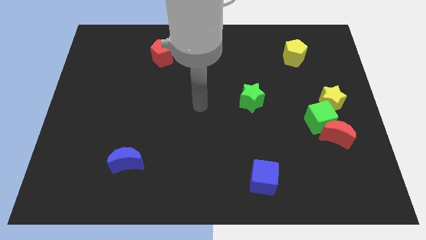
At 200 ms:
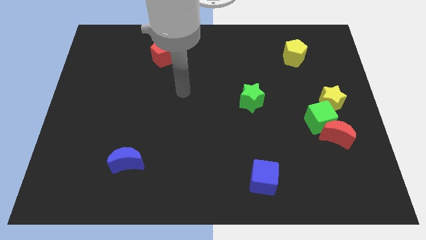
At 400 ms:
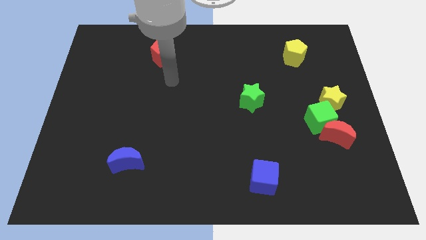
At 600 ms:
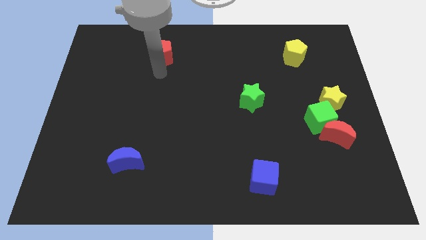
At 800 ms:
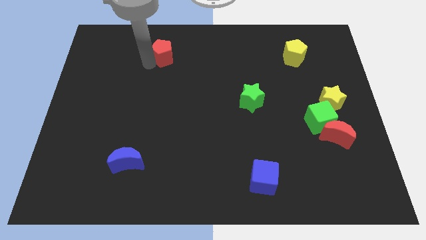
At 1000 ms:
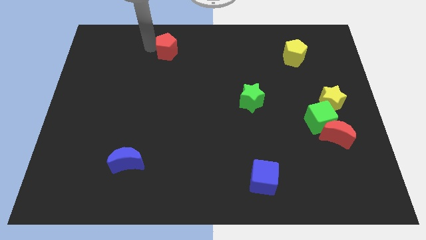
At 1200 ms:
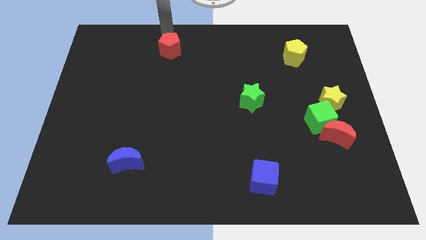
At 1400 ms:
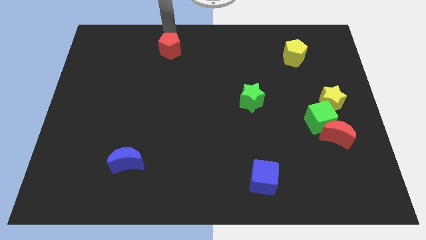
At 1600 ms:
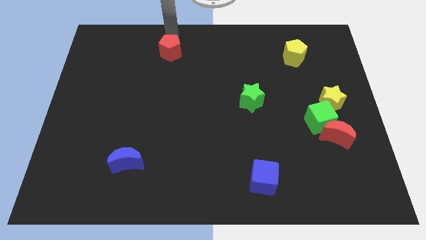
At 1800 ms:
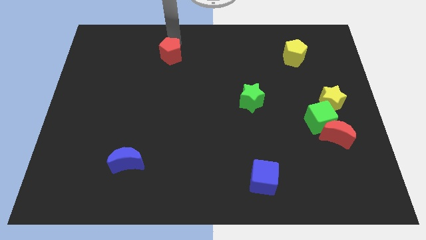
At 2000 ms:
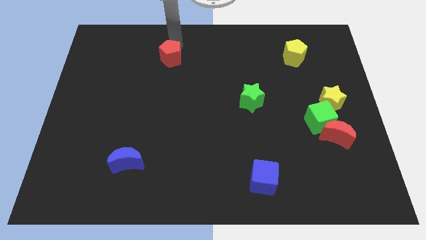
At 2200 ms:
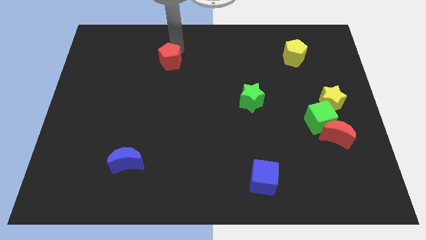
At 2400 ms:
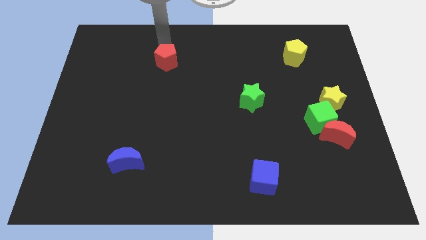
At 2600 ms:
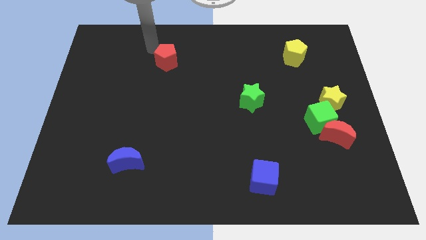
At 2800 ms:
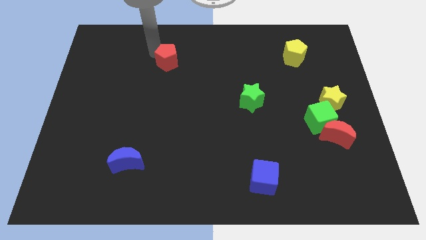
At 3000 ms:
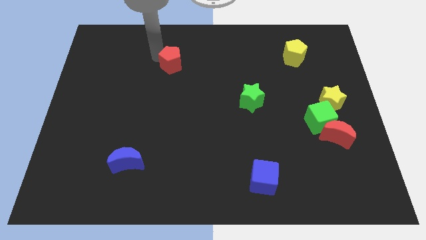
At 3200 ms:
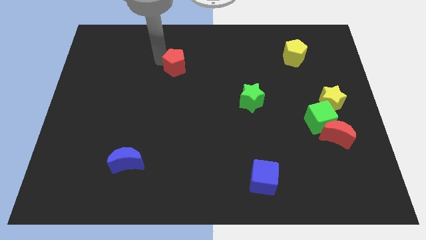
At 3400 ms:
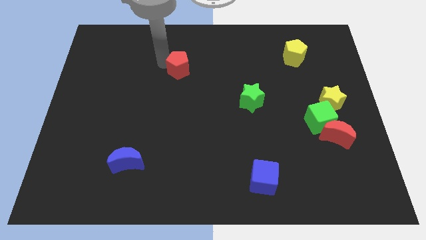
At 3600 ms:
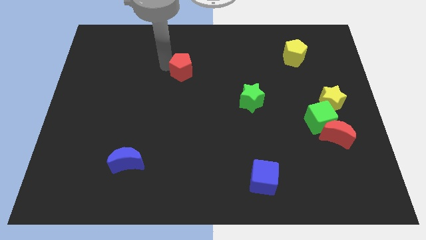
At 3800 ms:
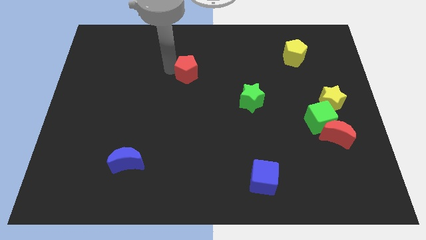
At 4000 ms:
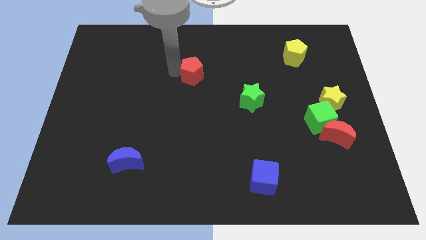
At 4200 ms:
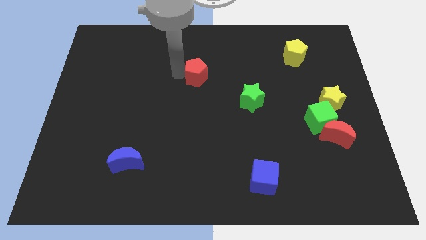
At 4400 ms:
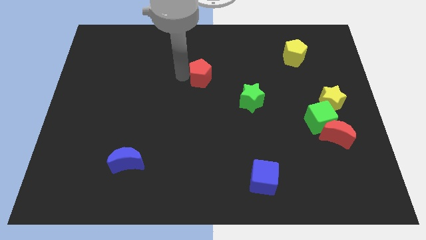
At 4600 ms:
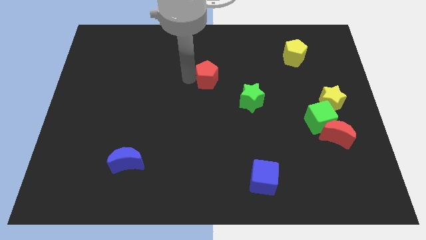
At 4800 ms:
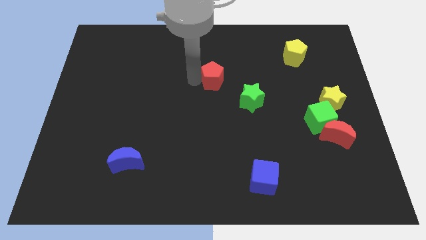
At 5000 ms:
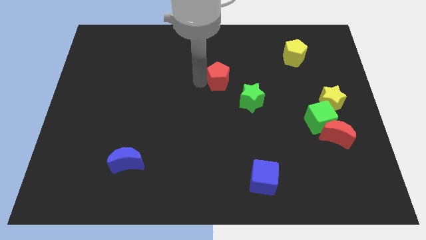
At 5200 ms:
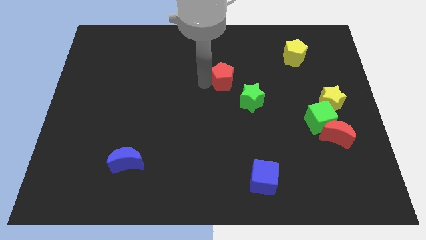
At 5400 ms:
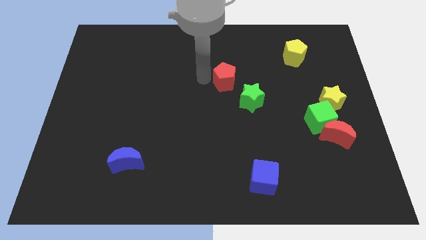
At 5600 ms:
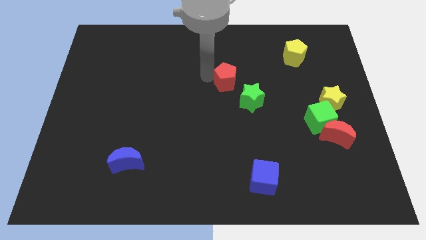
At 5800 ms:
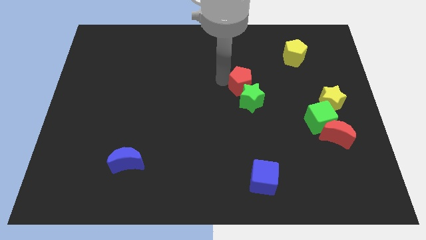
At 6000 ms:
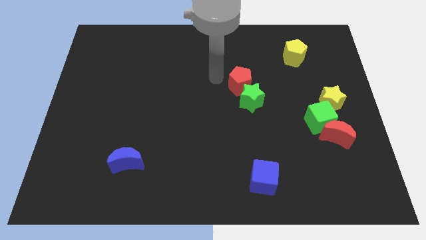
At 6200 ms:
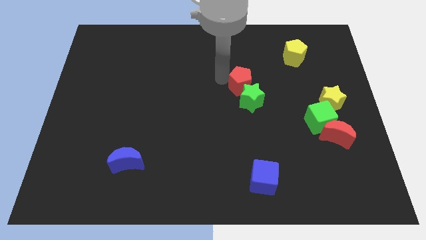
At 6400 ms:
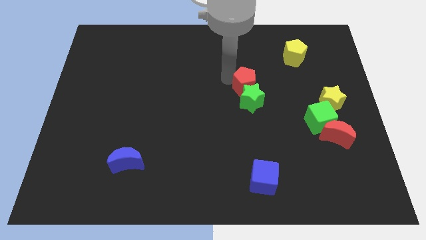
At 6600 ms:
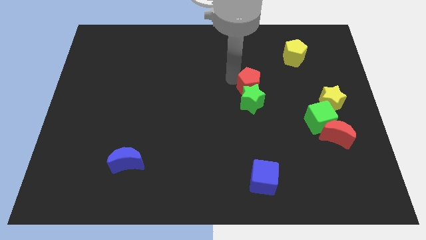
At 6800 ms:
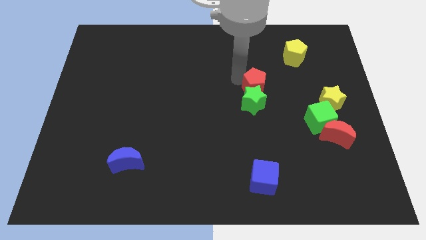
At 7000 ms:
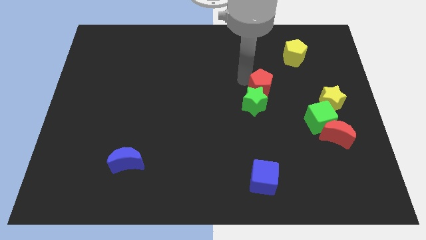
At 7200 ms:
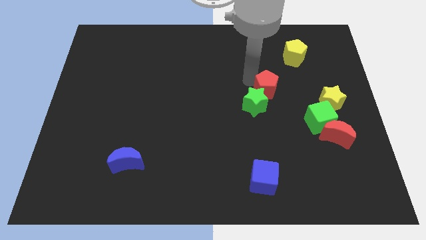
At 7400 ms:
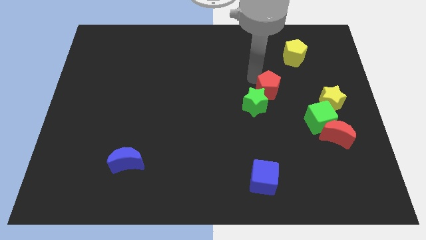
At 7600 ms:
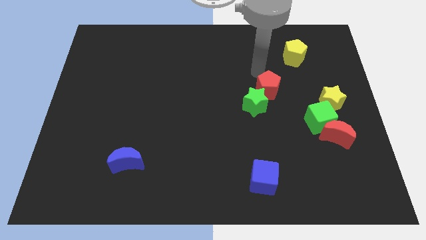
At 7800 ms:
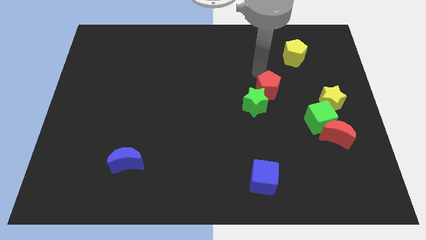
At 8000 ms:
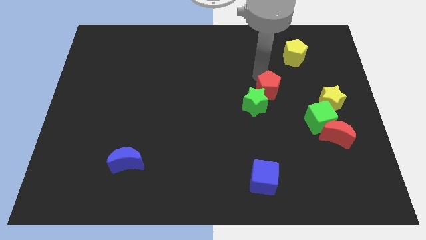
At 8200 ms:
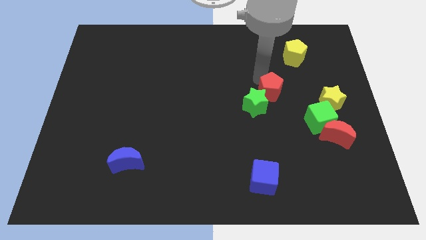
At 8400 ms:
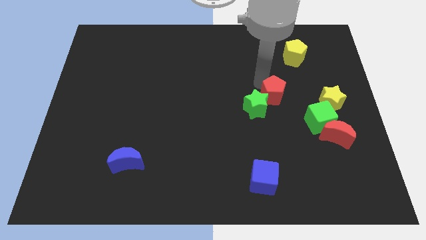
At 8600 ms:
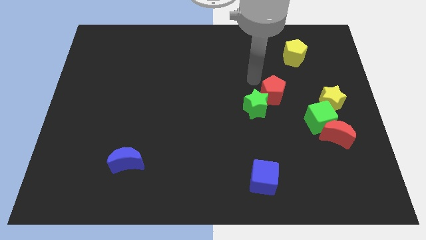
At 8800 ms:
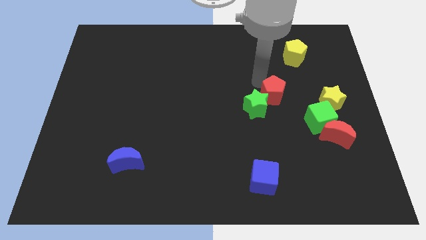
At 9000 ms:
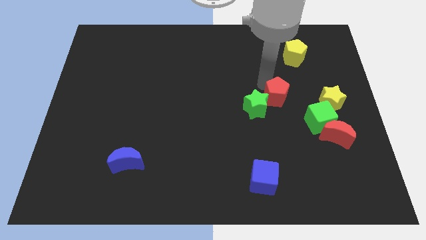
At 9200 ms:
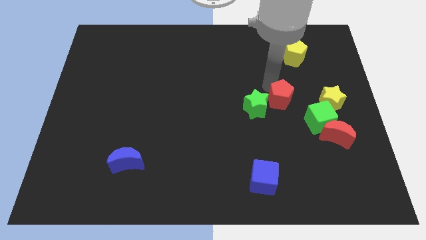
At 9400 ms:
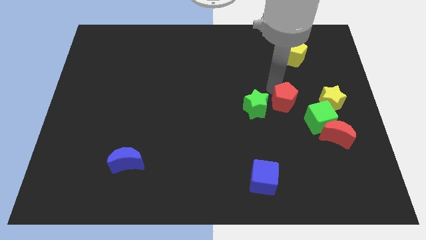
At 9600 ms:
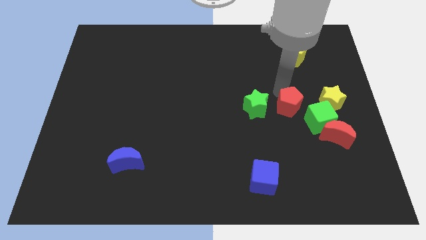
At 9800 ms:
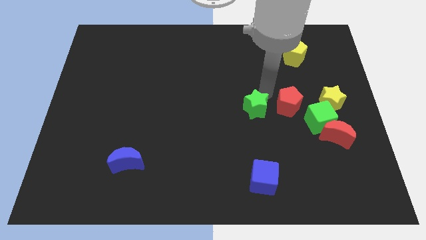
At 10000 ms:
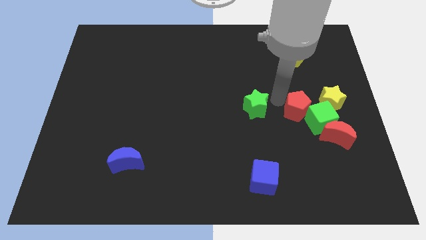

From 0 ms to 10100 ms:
move the red pentagon close to the green cube

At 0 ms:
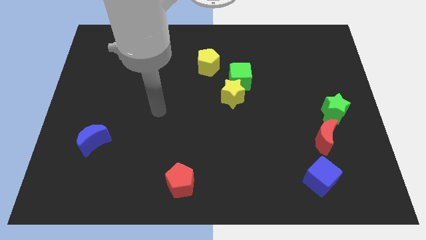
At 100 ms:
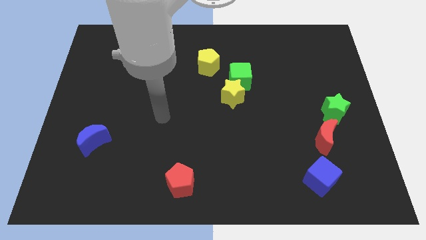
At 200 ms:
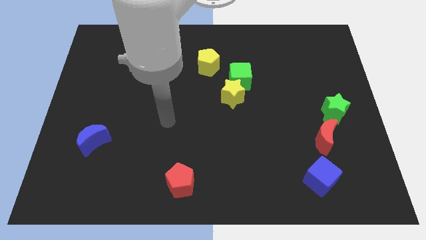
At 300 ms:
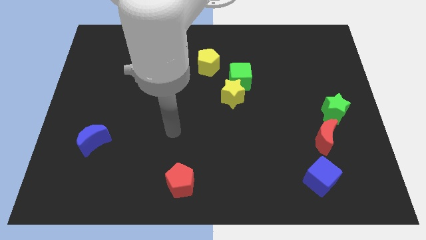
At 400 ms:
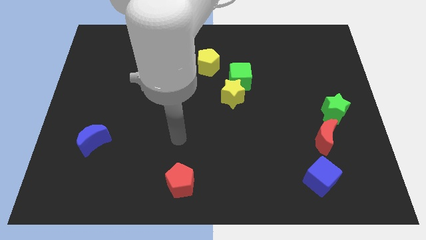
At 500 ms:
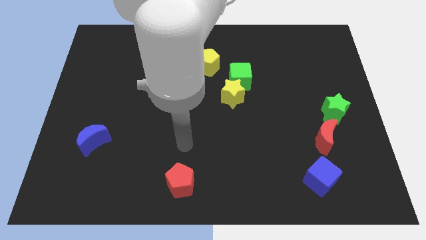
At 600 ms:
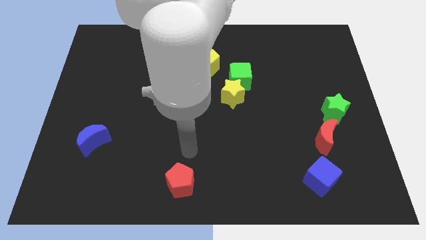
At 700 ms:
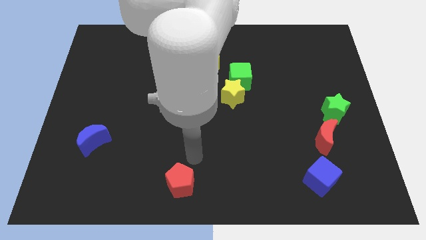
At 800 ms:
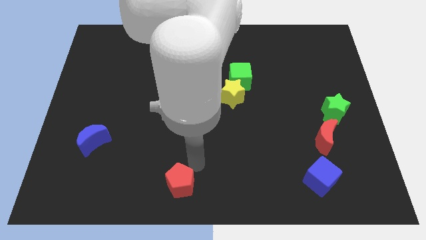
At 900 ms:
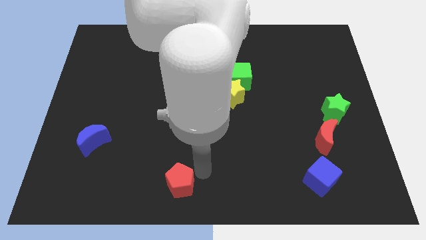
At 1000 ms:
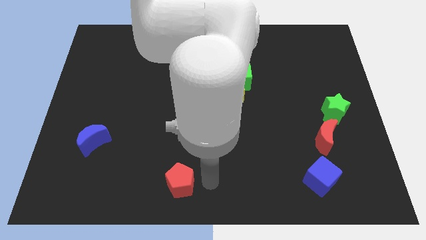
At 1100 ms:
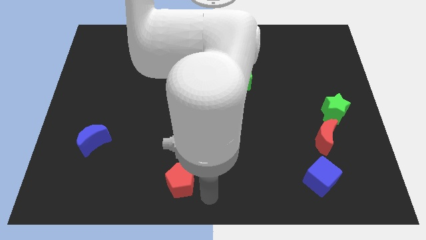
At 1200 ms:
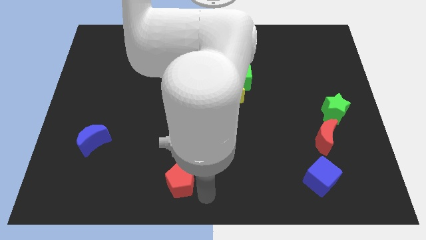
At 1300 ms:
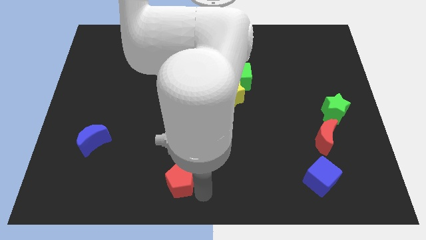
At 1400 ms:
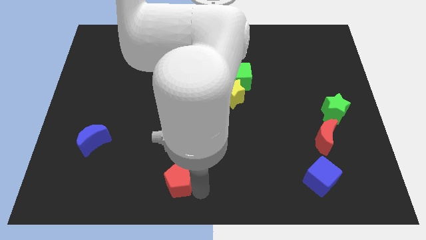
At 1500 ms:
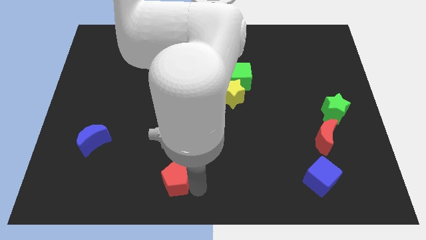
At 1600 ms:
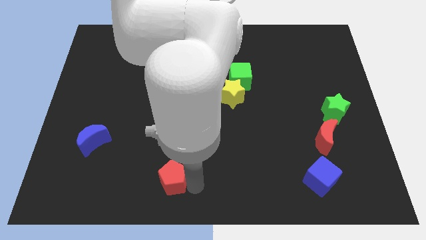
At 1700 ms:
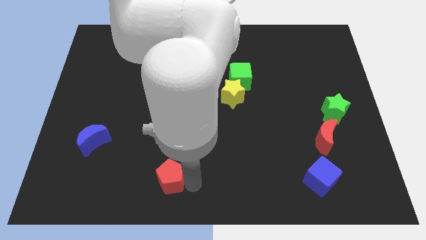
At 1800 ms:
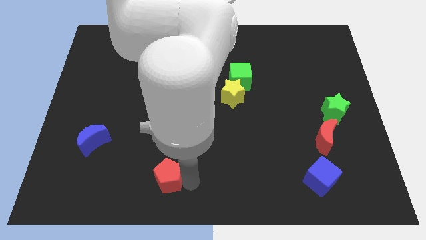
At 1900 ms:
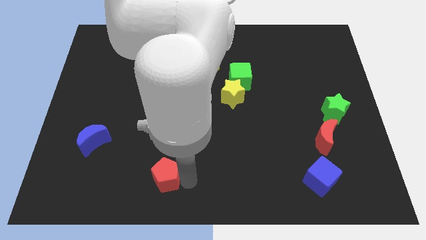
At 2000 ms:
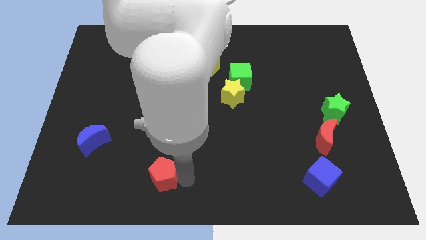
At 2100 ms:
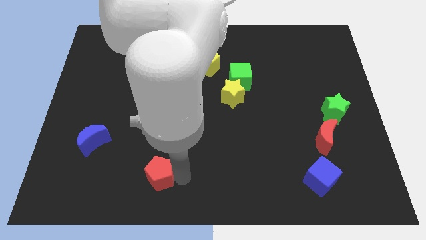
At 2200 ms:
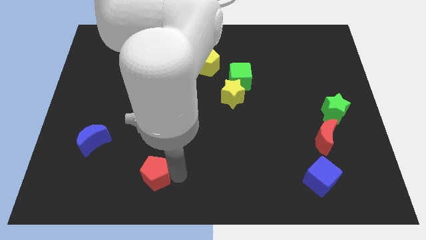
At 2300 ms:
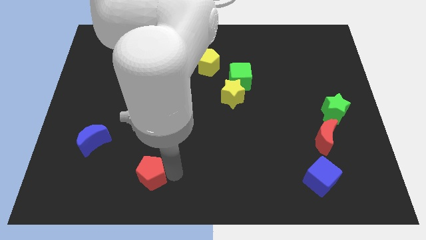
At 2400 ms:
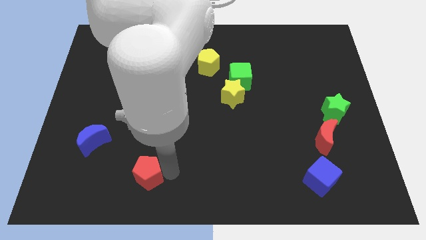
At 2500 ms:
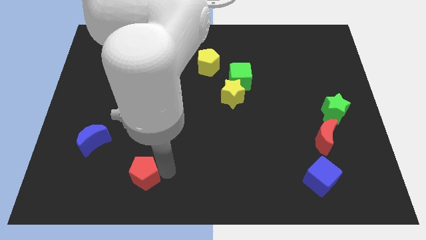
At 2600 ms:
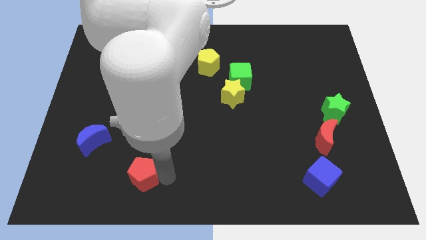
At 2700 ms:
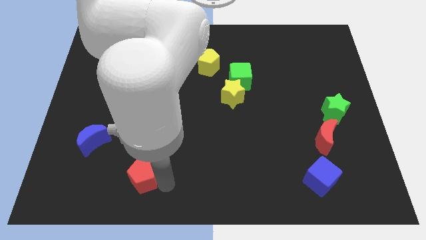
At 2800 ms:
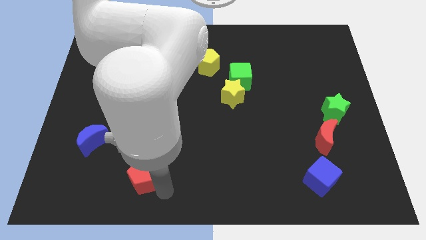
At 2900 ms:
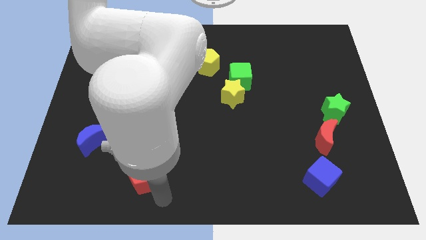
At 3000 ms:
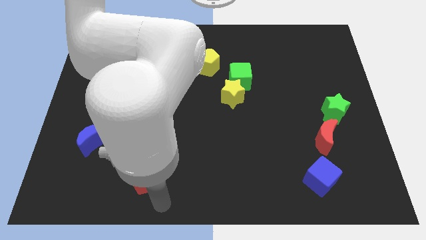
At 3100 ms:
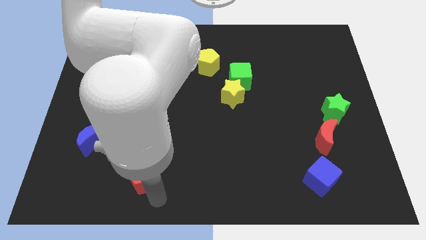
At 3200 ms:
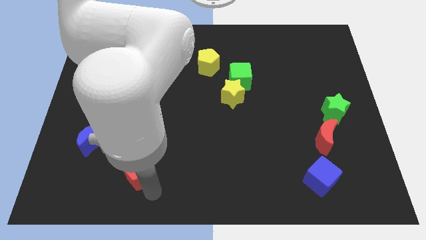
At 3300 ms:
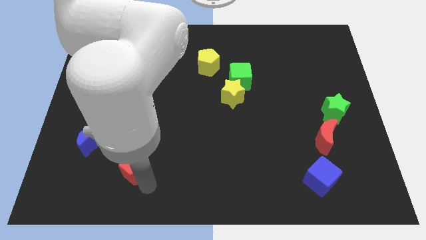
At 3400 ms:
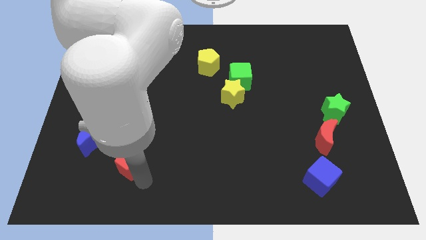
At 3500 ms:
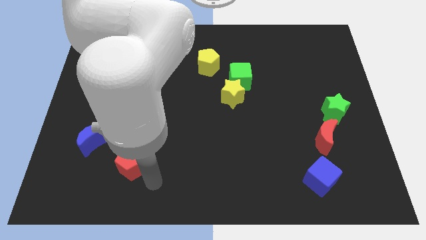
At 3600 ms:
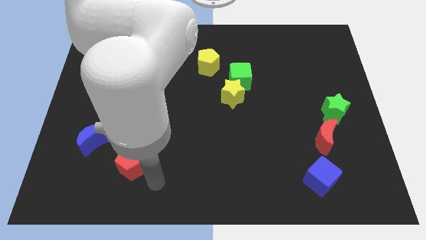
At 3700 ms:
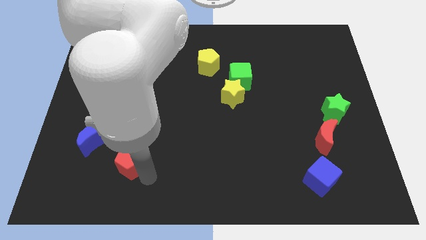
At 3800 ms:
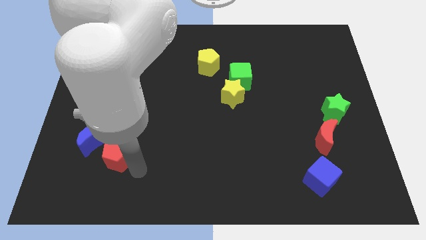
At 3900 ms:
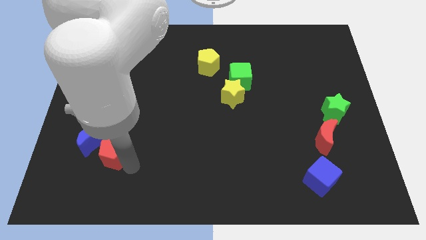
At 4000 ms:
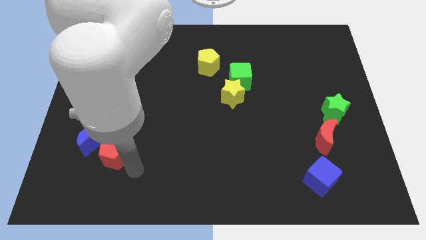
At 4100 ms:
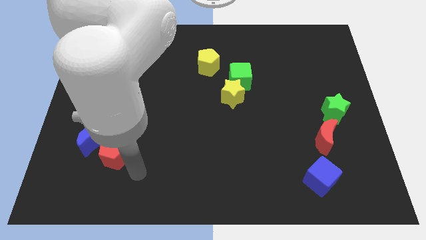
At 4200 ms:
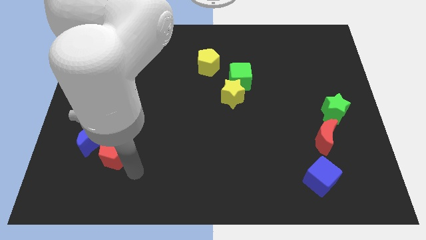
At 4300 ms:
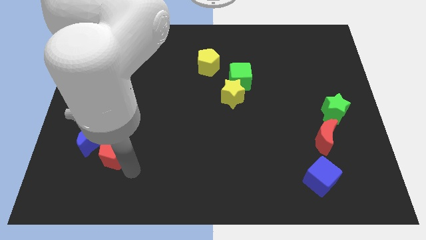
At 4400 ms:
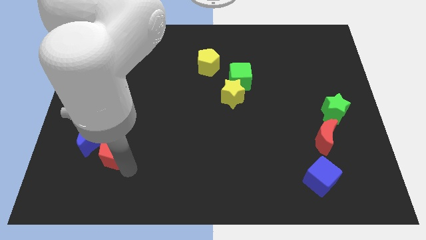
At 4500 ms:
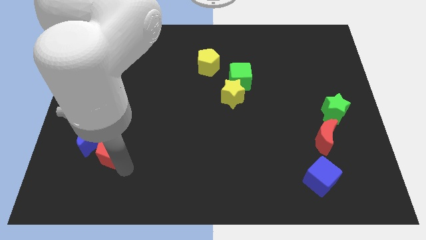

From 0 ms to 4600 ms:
move the red pentagon next to the blue moon
